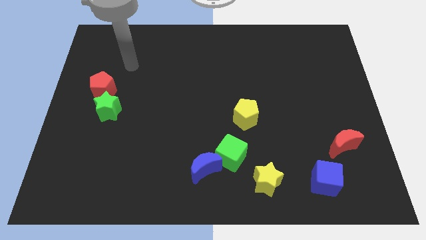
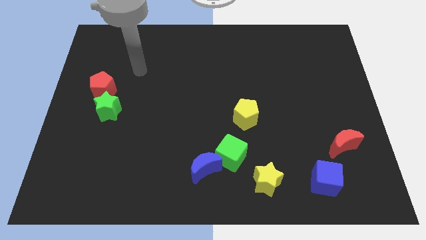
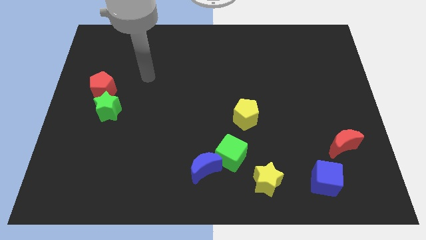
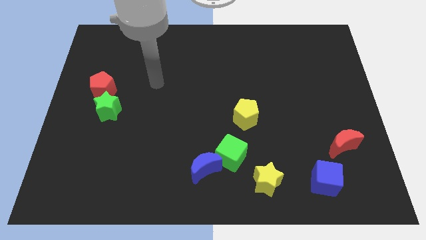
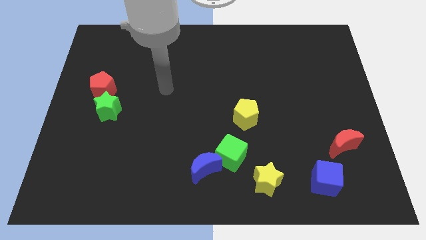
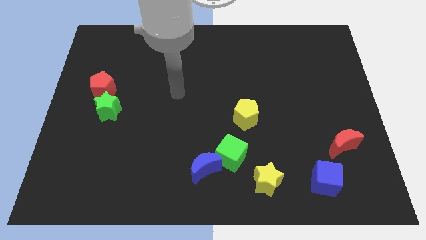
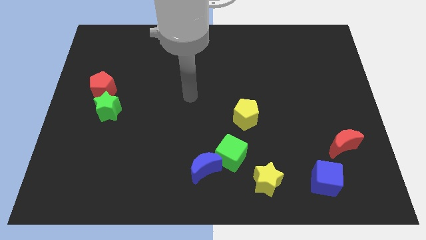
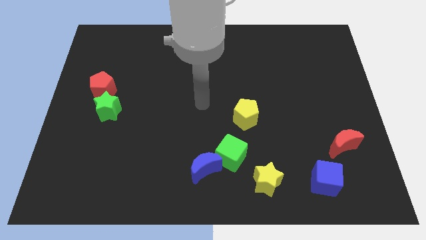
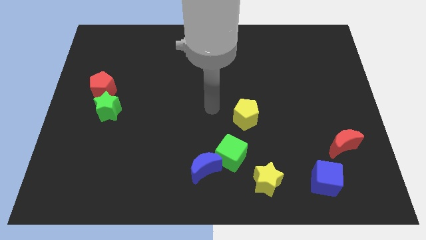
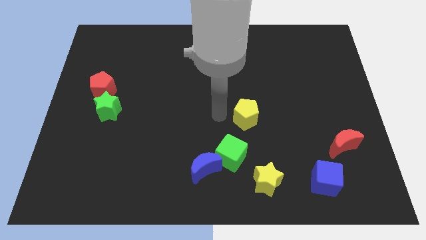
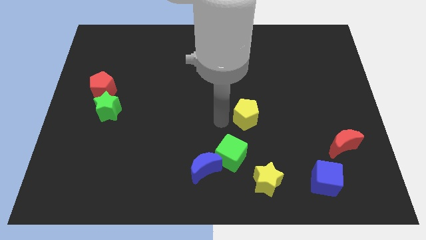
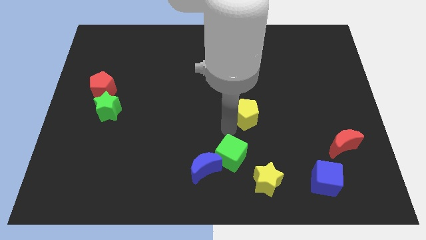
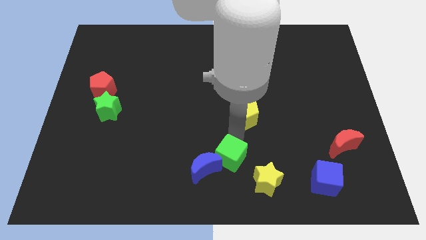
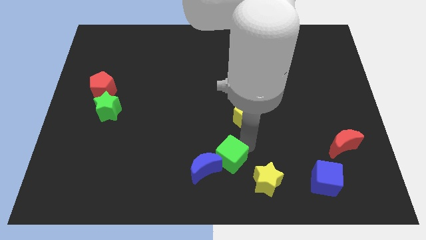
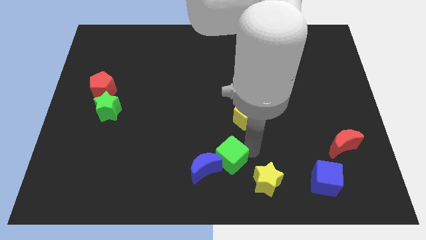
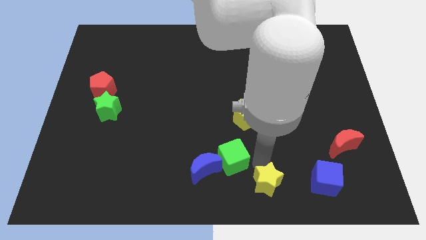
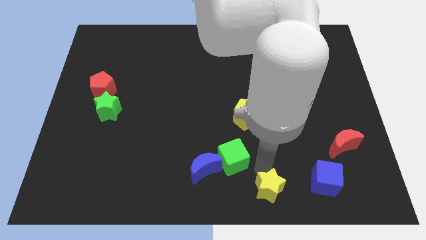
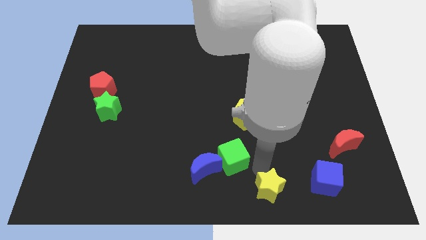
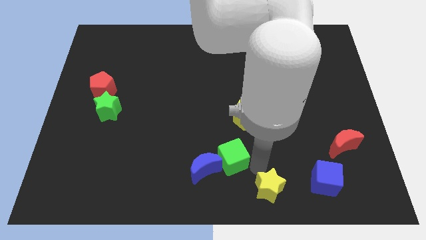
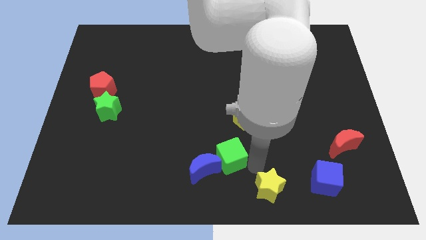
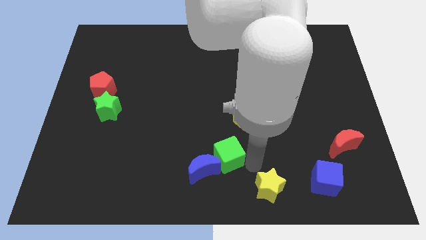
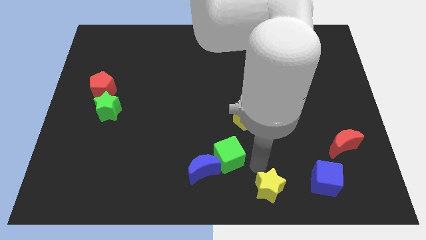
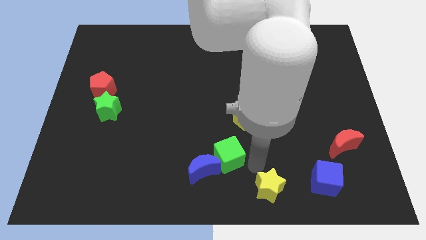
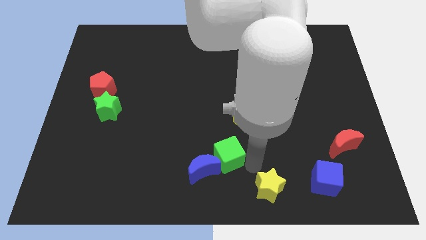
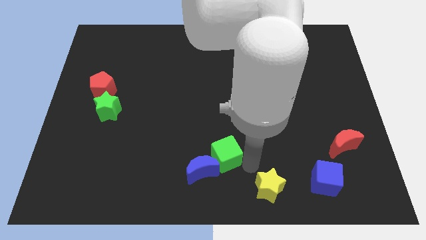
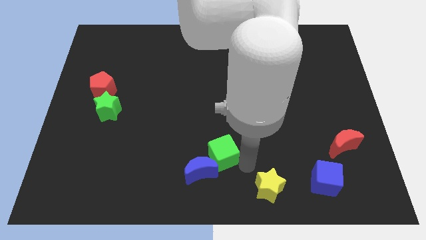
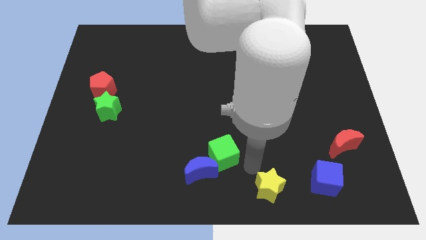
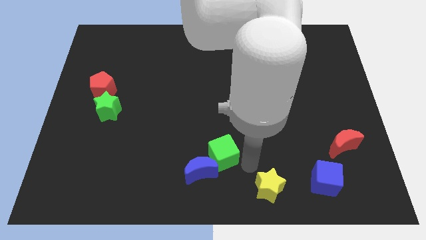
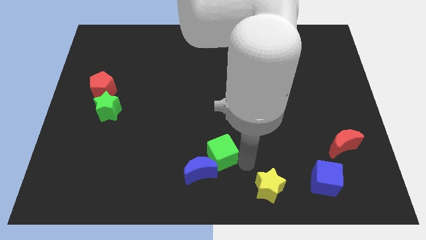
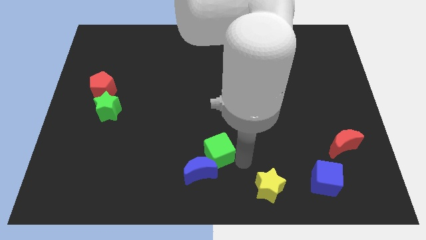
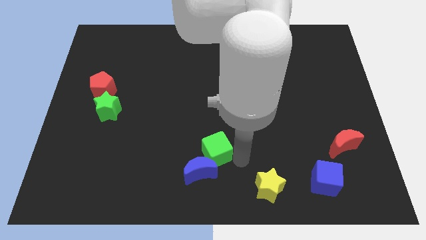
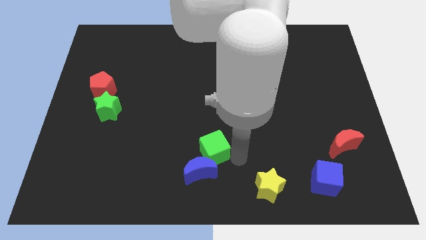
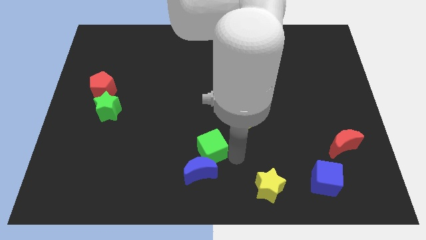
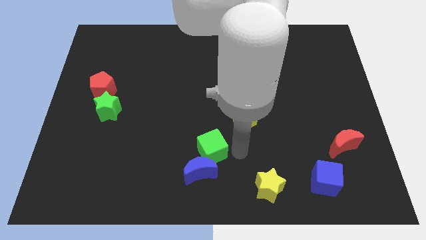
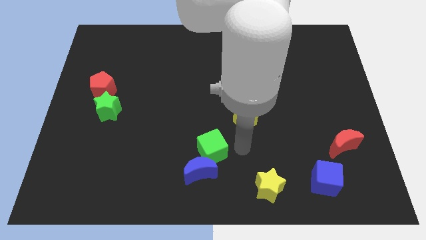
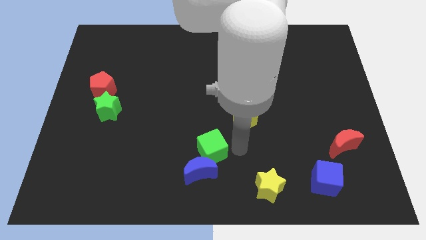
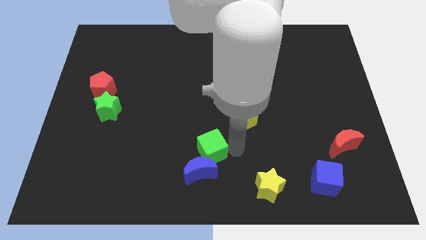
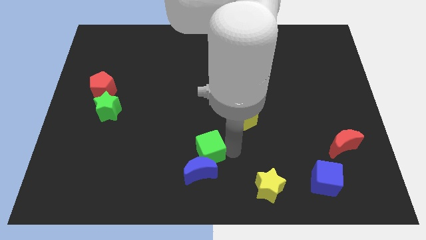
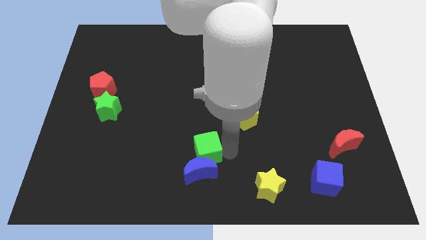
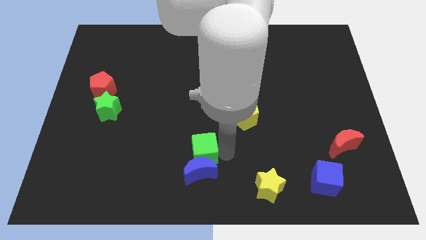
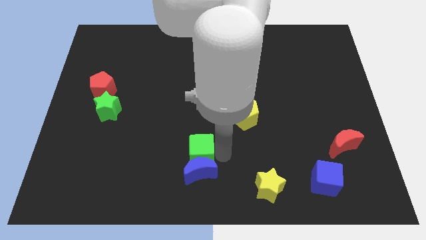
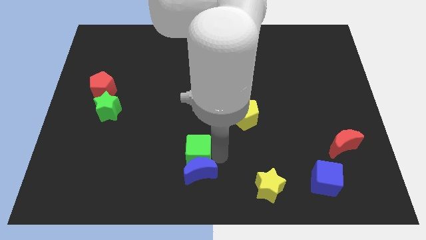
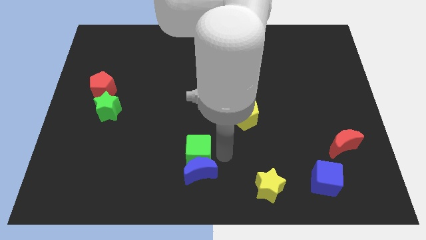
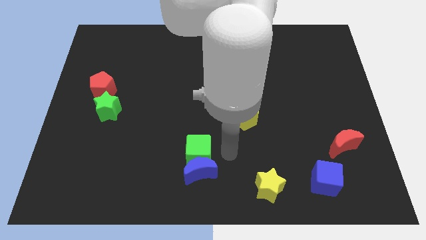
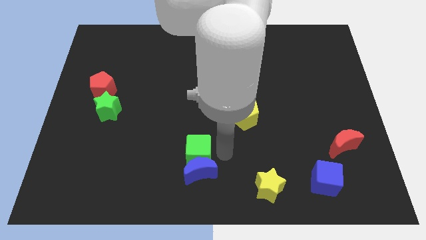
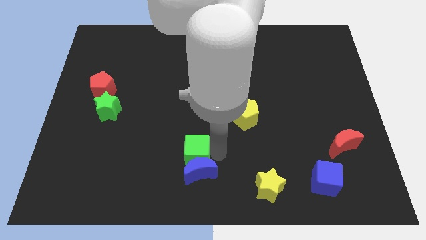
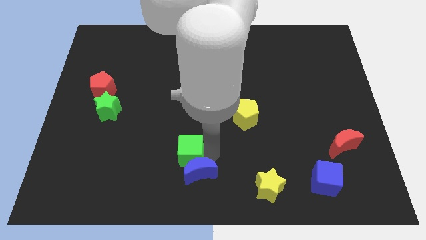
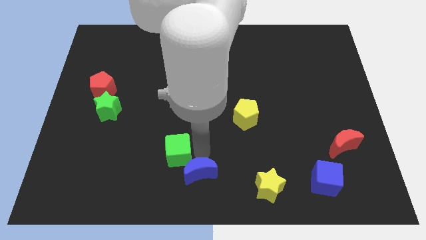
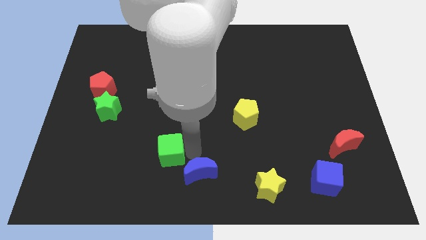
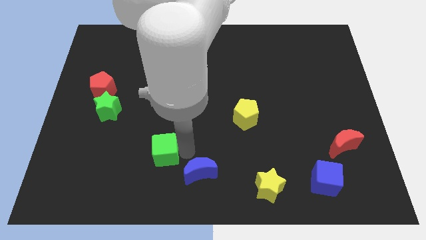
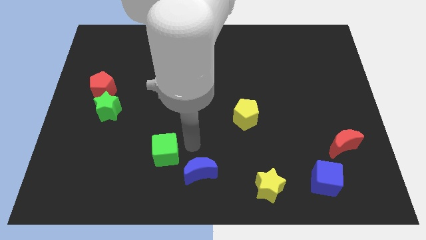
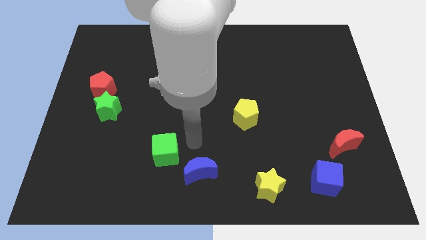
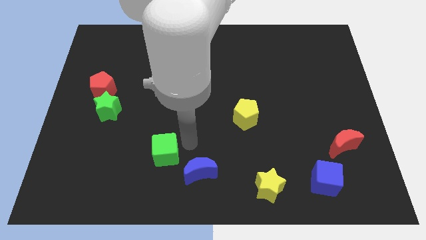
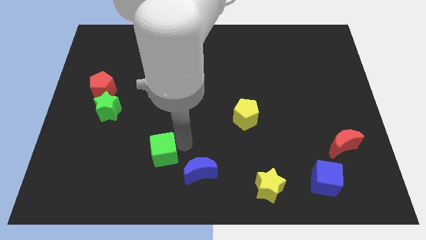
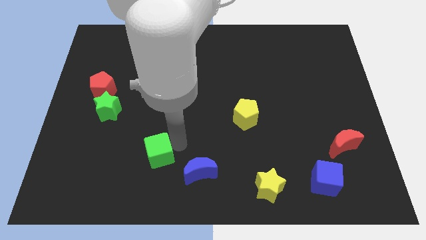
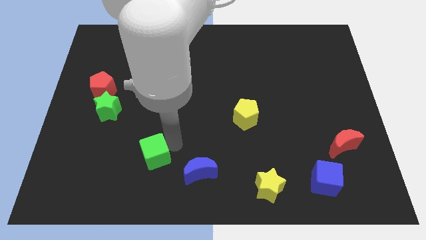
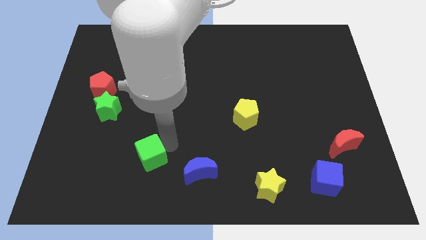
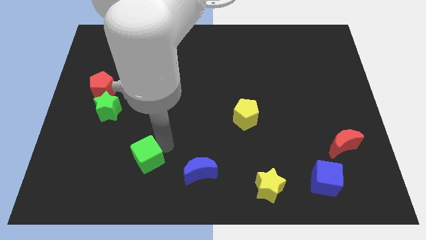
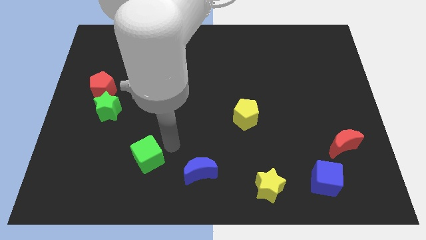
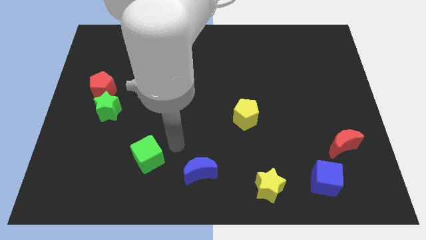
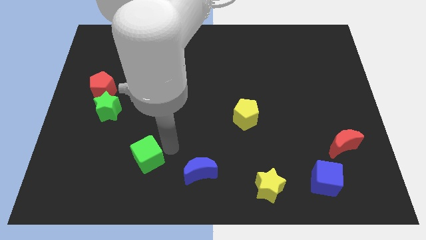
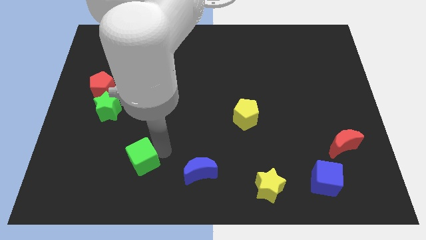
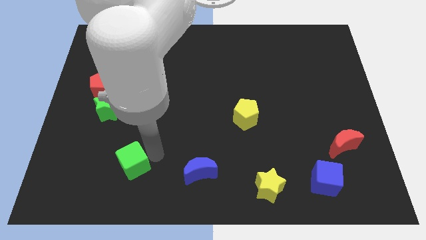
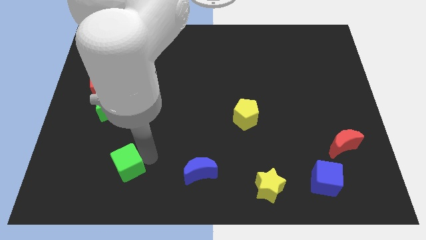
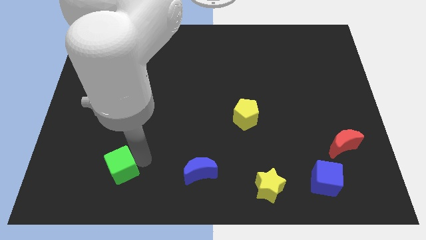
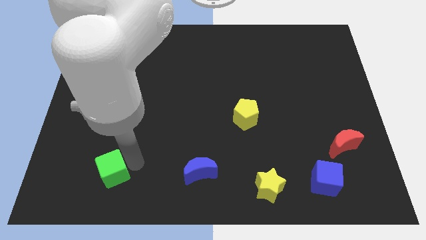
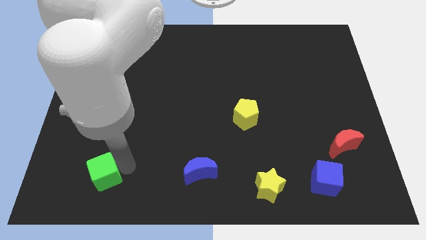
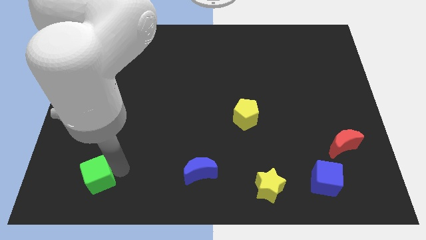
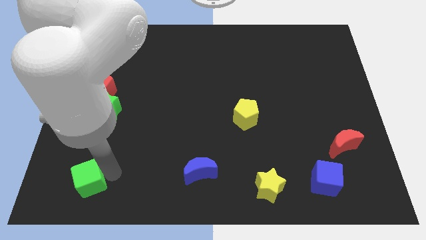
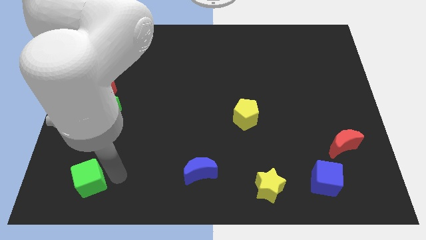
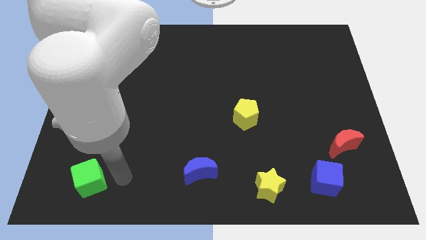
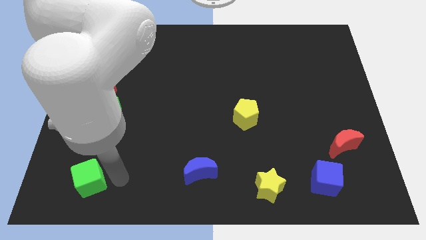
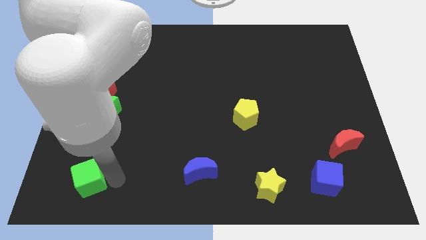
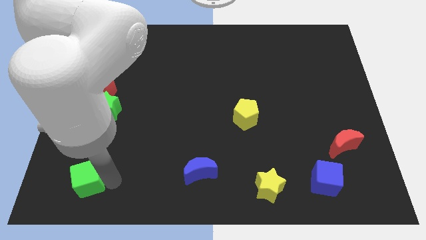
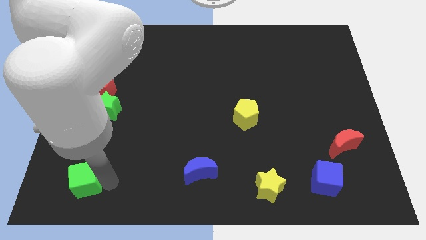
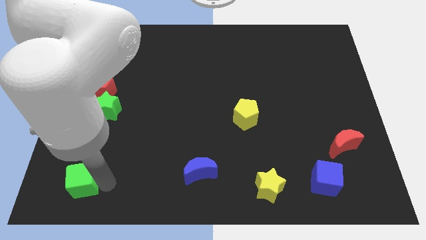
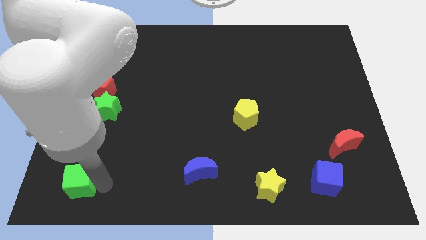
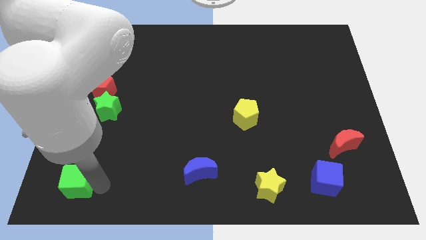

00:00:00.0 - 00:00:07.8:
push the green cube to the bottom left corner
